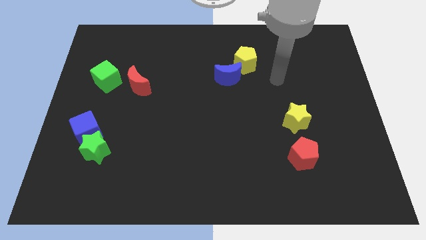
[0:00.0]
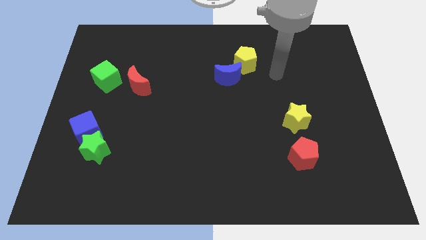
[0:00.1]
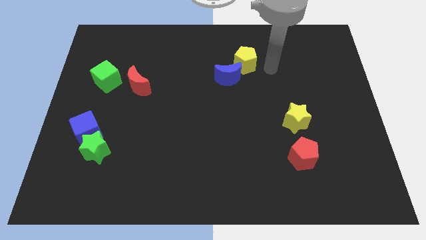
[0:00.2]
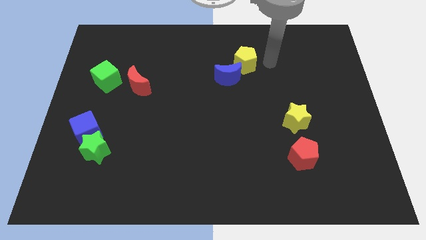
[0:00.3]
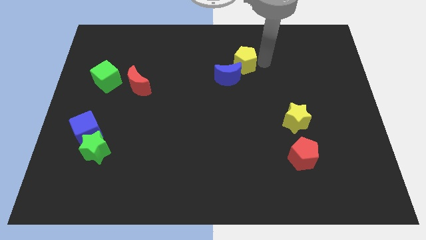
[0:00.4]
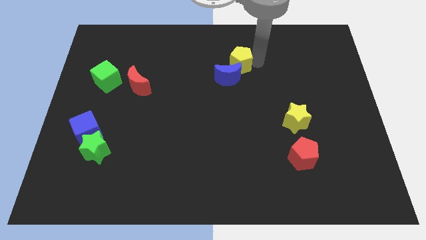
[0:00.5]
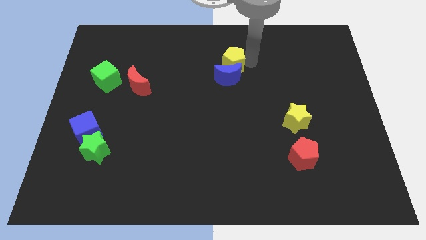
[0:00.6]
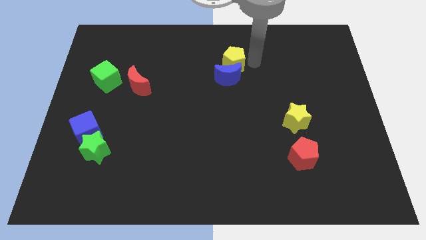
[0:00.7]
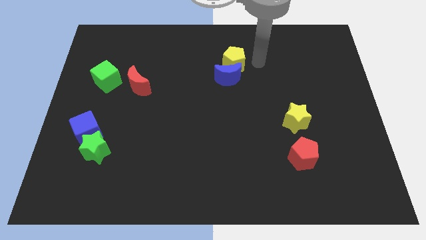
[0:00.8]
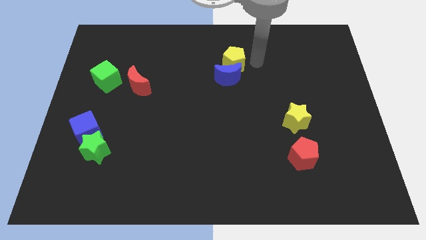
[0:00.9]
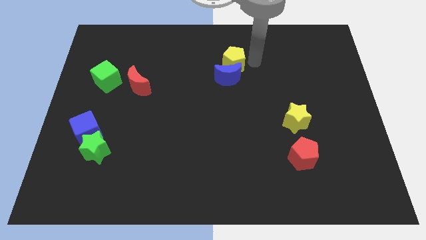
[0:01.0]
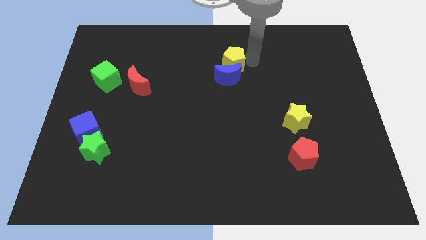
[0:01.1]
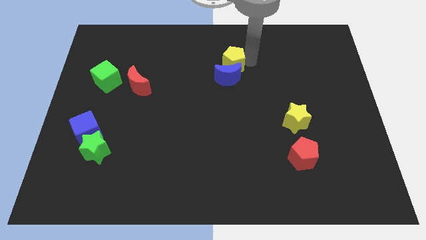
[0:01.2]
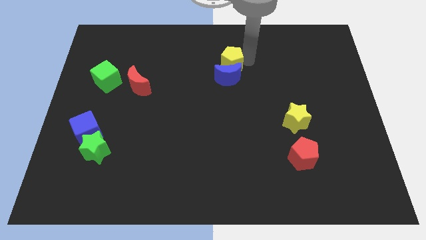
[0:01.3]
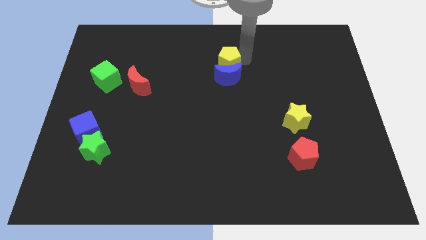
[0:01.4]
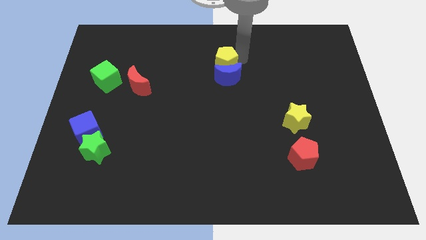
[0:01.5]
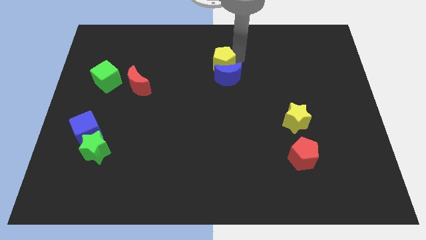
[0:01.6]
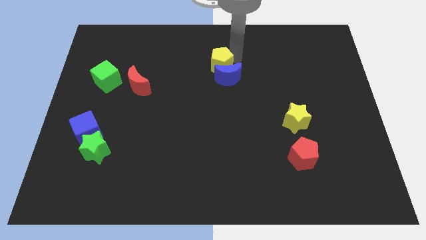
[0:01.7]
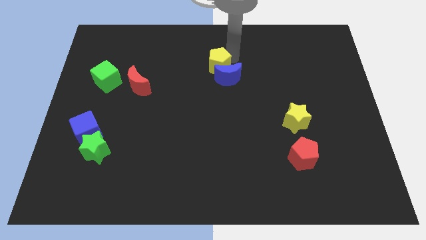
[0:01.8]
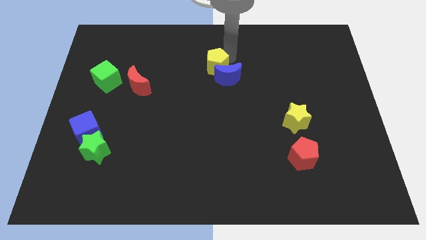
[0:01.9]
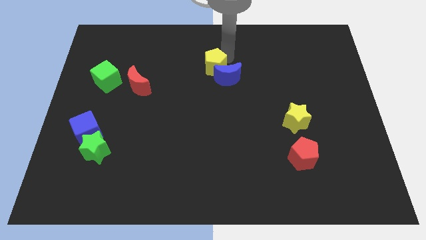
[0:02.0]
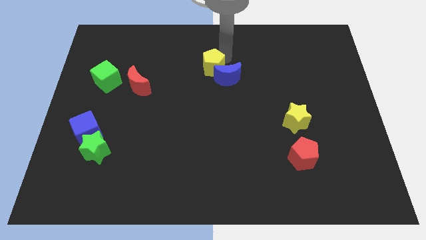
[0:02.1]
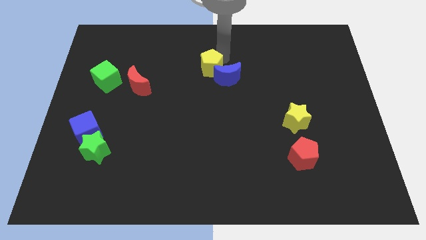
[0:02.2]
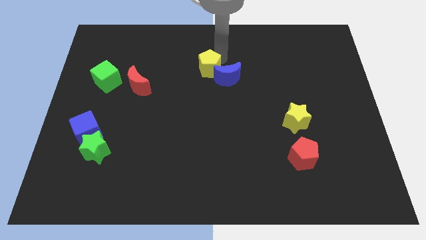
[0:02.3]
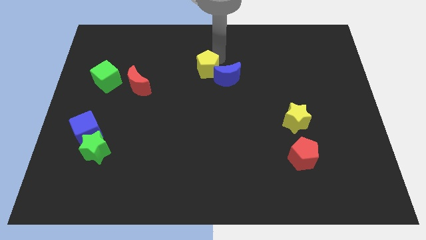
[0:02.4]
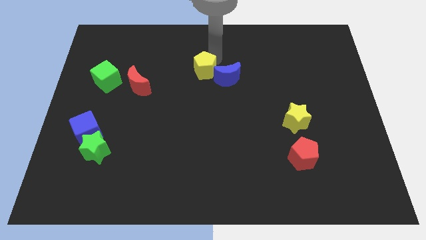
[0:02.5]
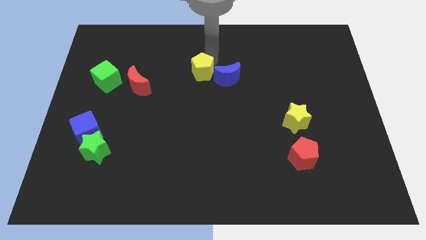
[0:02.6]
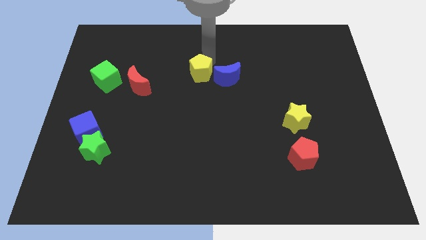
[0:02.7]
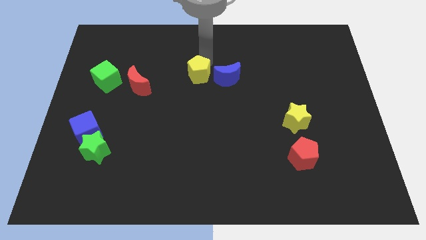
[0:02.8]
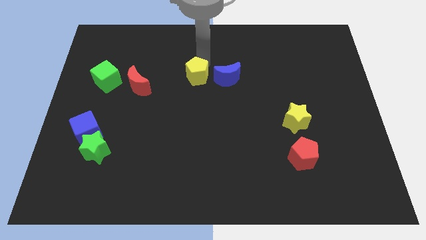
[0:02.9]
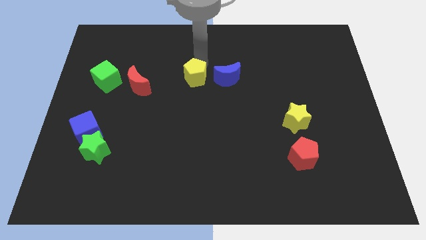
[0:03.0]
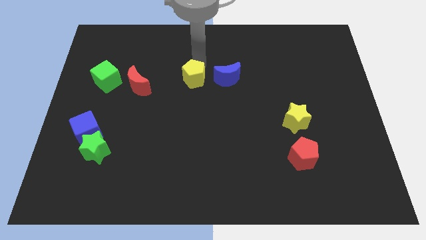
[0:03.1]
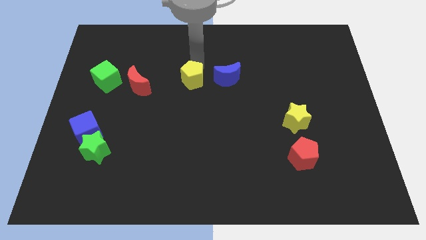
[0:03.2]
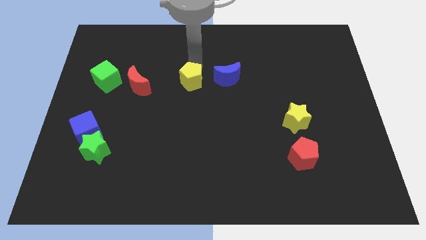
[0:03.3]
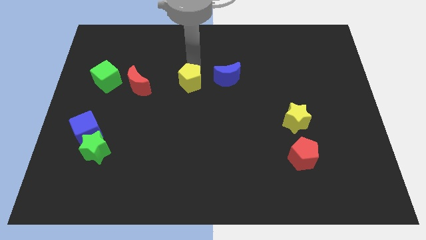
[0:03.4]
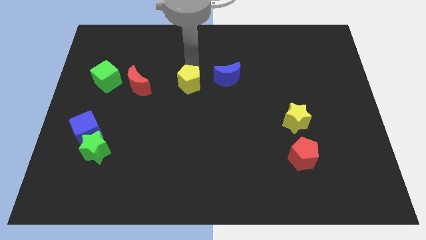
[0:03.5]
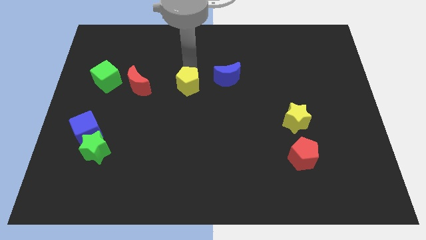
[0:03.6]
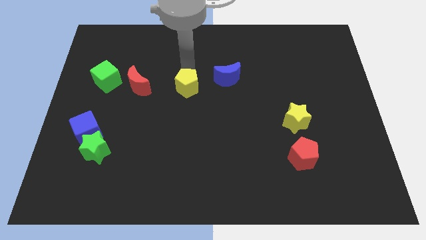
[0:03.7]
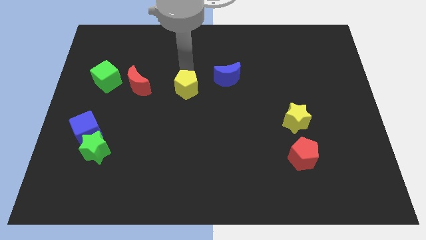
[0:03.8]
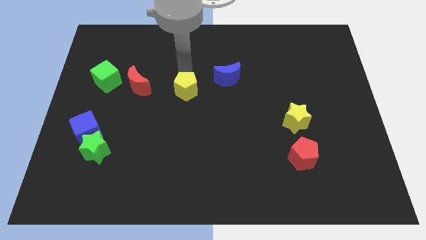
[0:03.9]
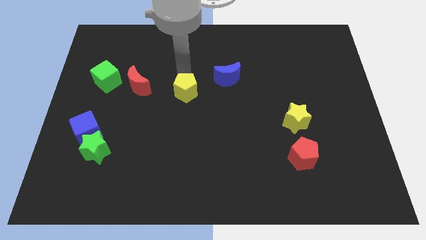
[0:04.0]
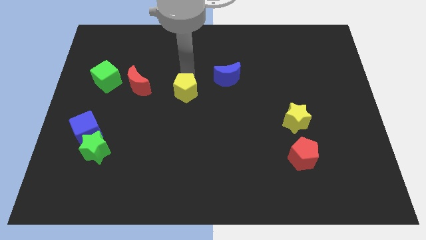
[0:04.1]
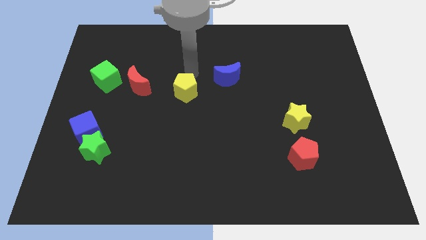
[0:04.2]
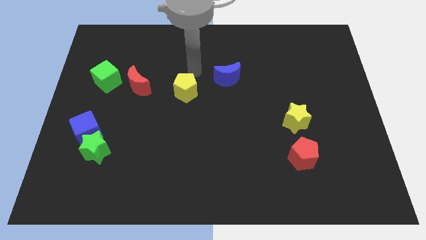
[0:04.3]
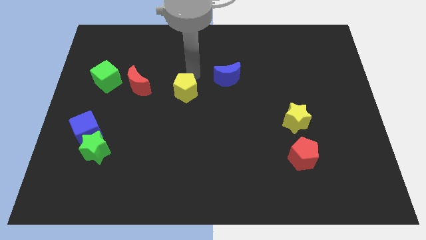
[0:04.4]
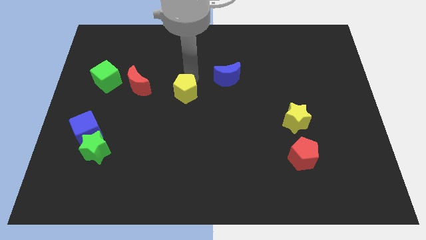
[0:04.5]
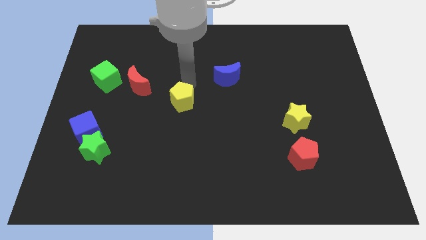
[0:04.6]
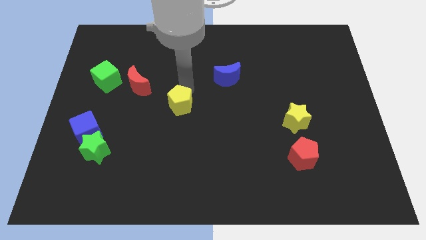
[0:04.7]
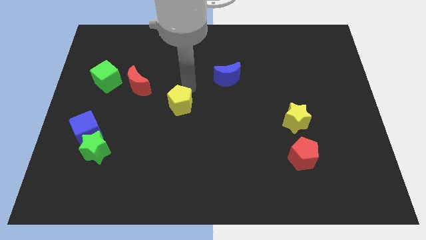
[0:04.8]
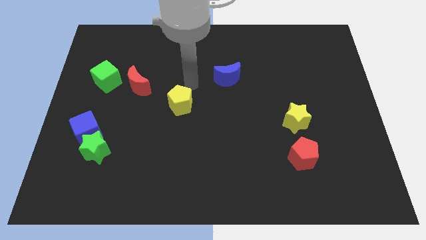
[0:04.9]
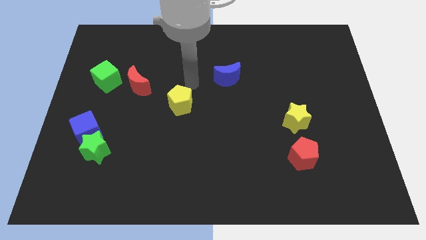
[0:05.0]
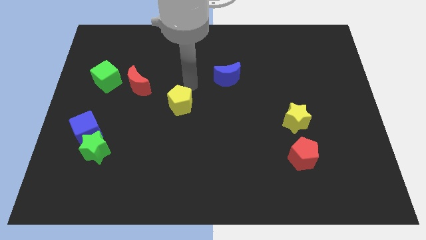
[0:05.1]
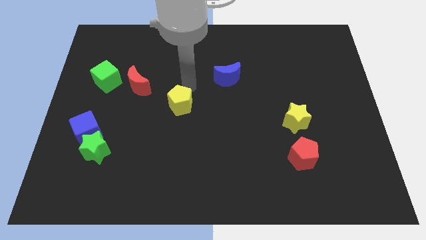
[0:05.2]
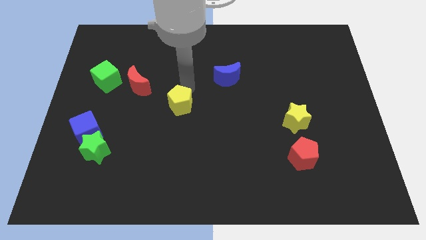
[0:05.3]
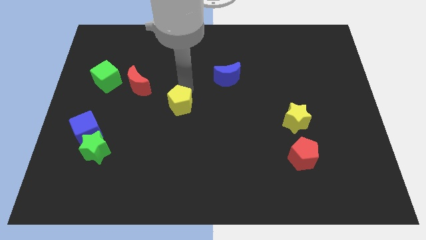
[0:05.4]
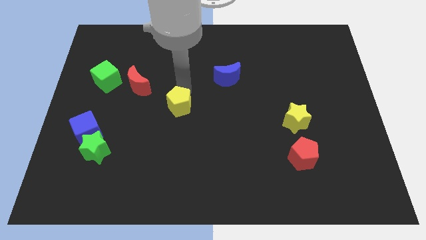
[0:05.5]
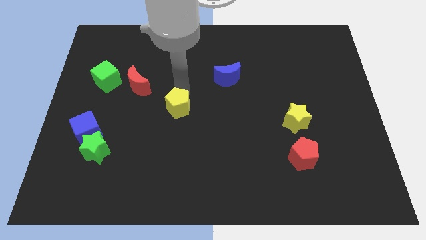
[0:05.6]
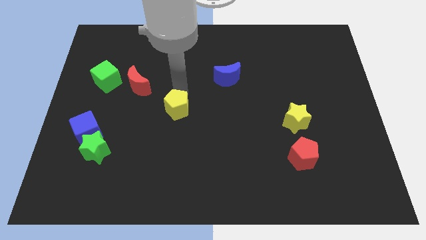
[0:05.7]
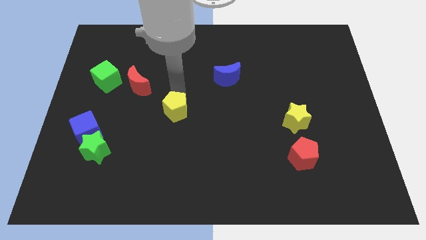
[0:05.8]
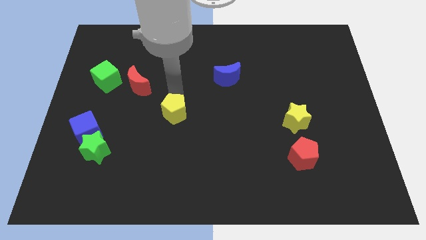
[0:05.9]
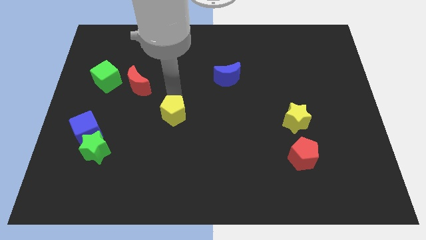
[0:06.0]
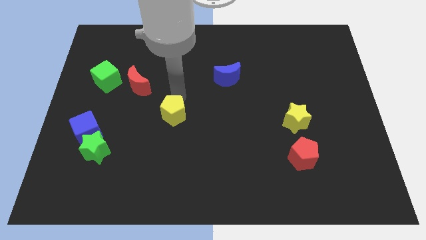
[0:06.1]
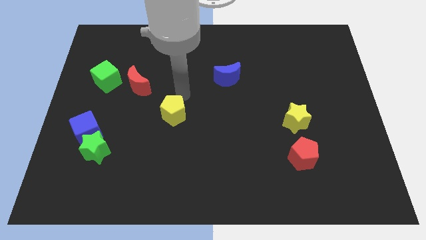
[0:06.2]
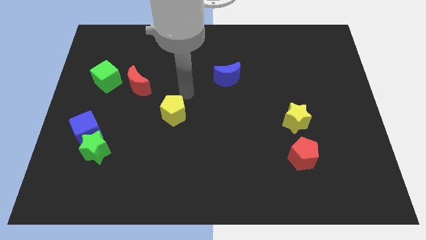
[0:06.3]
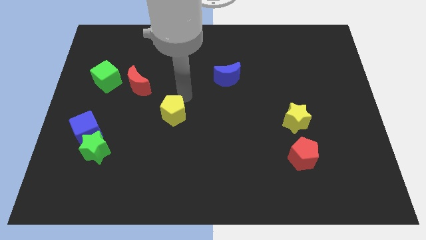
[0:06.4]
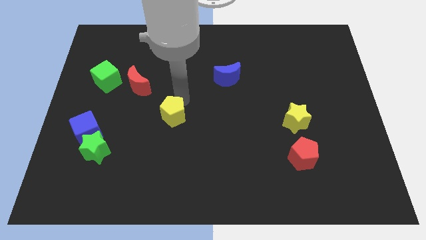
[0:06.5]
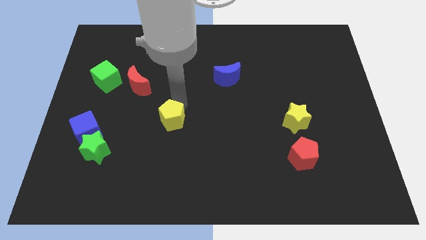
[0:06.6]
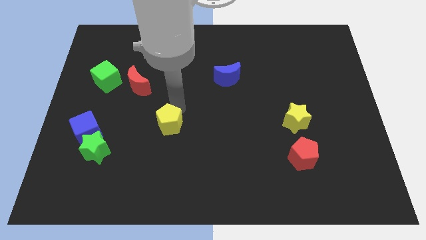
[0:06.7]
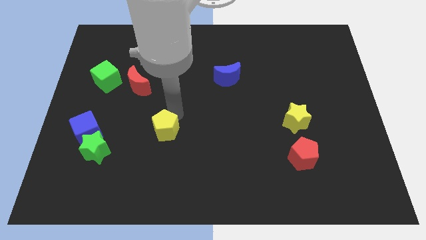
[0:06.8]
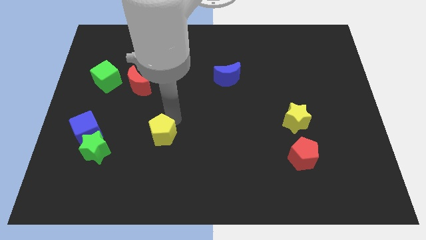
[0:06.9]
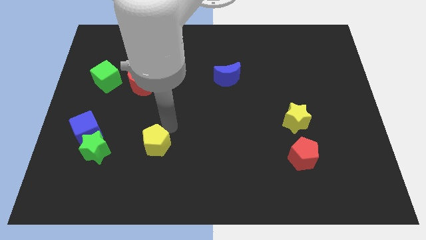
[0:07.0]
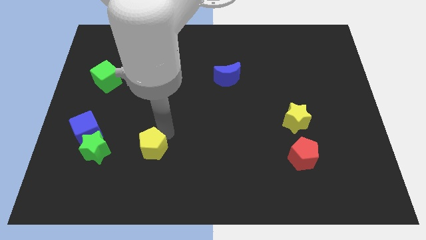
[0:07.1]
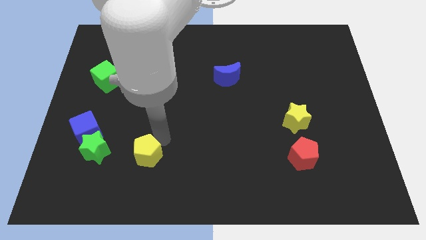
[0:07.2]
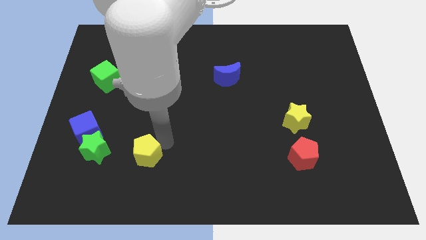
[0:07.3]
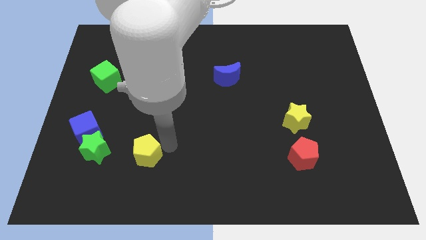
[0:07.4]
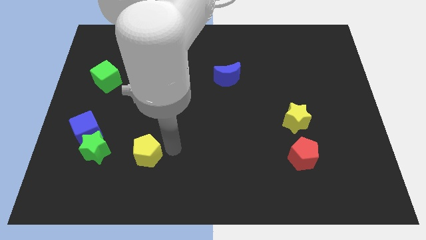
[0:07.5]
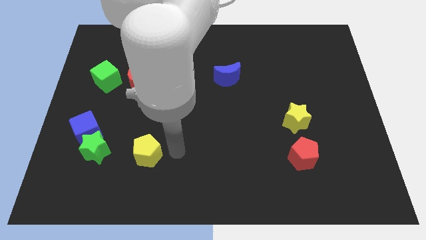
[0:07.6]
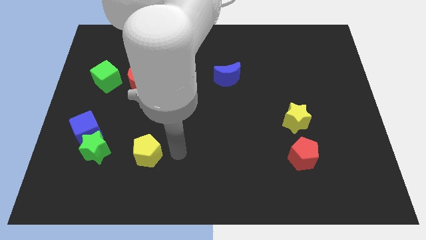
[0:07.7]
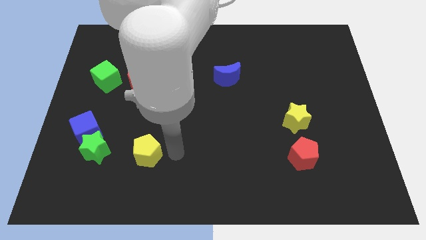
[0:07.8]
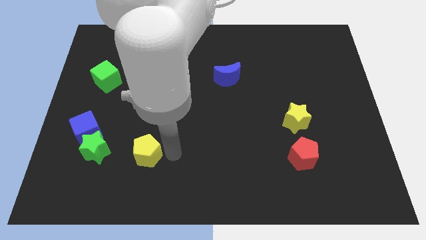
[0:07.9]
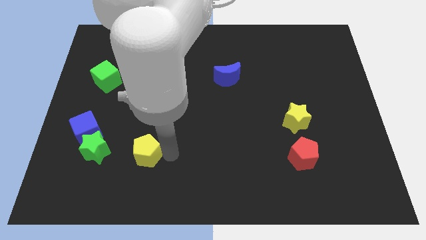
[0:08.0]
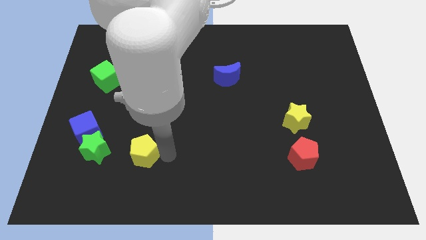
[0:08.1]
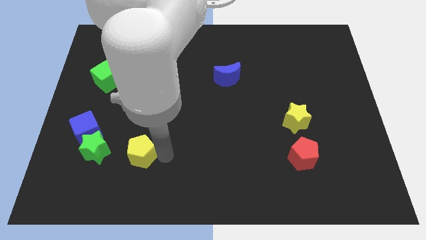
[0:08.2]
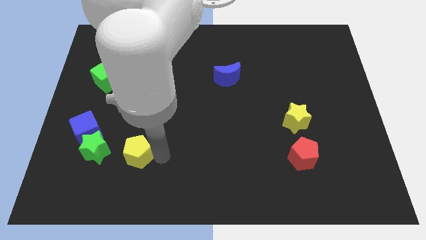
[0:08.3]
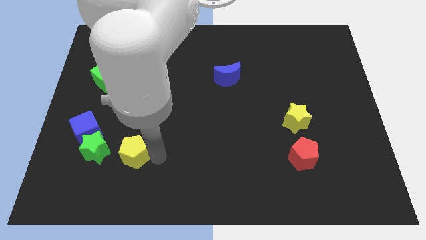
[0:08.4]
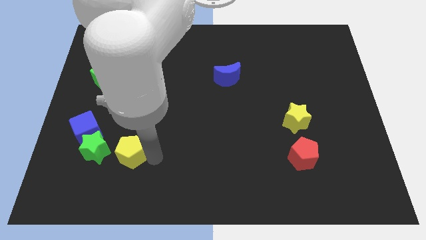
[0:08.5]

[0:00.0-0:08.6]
slide the yellow pentagon to the bottom right side of the blue cube
